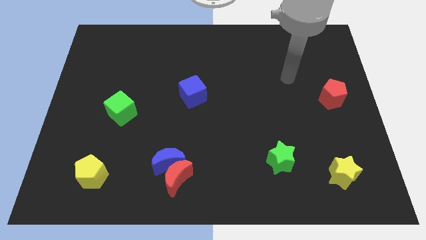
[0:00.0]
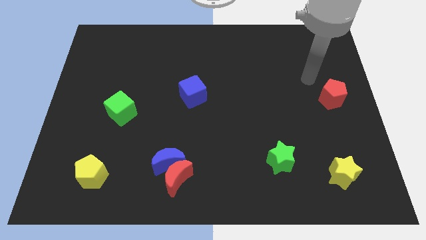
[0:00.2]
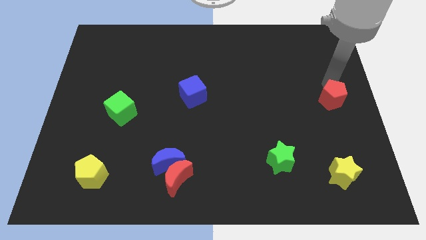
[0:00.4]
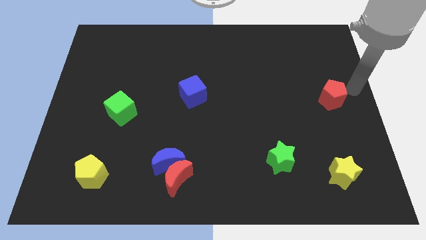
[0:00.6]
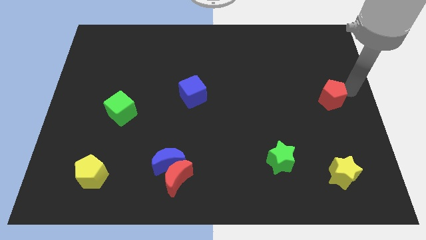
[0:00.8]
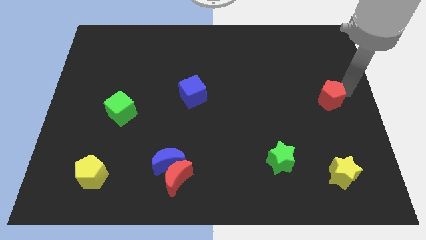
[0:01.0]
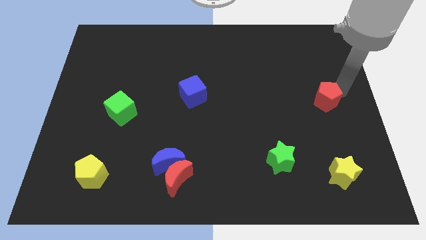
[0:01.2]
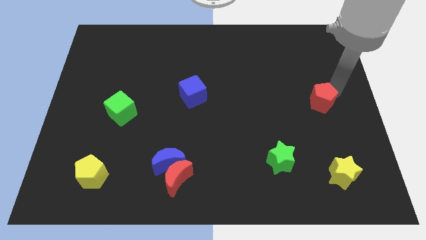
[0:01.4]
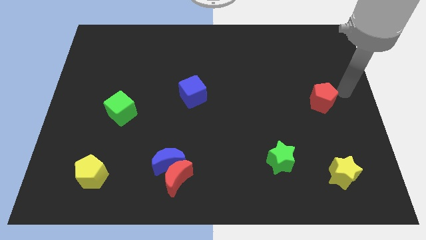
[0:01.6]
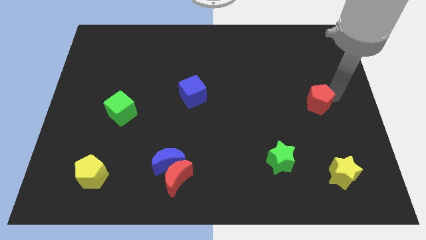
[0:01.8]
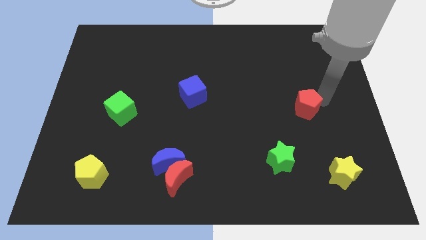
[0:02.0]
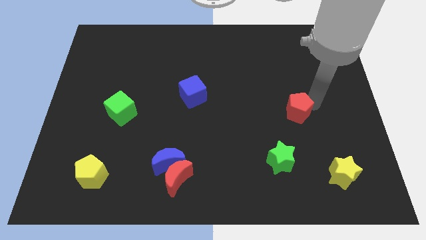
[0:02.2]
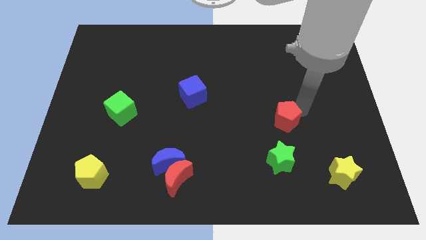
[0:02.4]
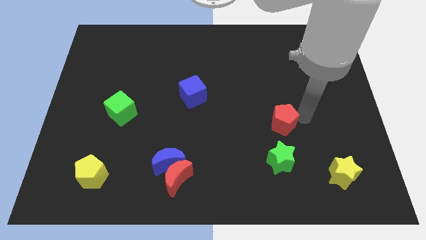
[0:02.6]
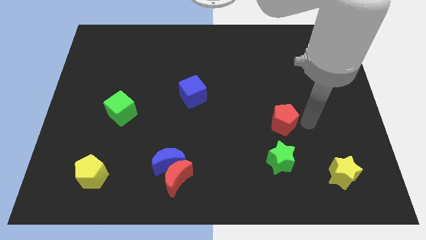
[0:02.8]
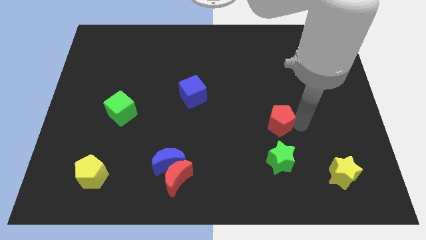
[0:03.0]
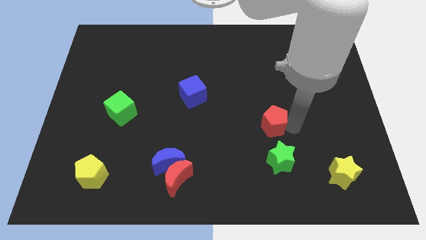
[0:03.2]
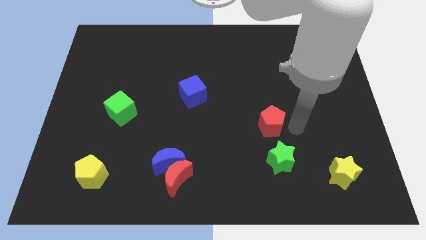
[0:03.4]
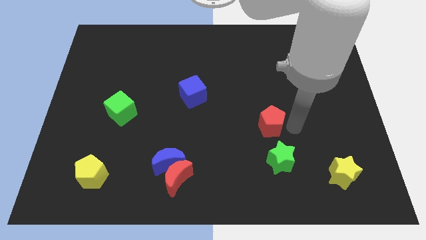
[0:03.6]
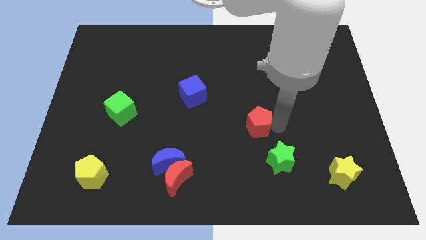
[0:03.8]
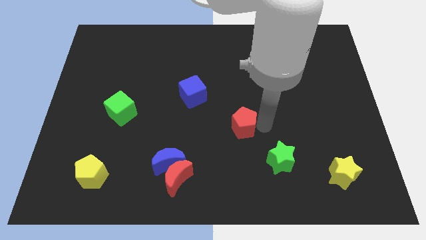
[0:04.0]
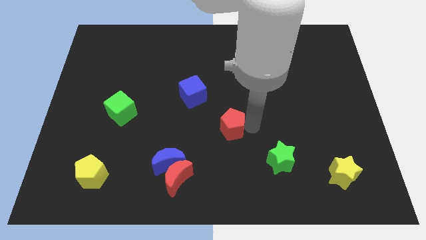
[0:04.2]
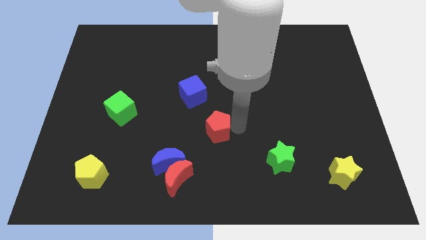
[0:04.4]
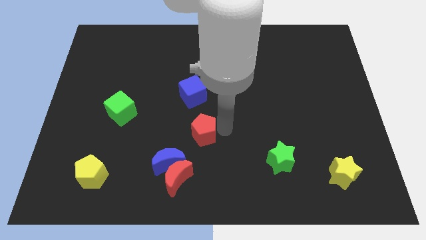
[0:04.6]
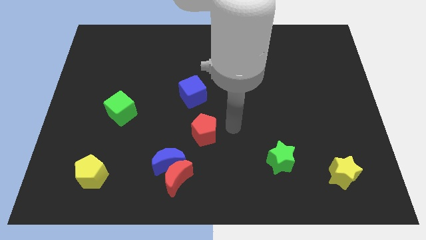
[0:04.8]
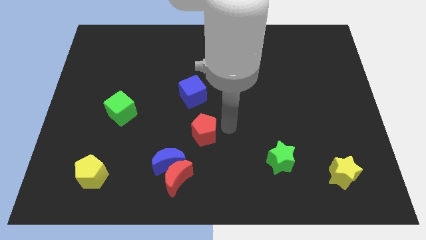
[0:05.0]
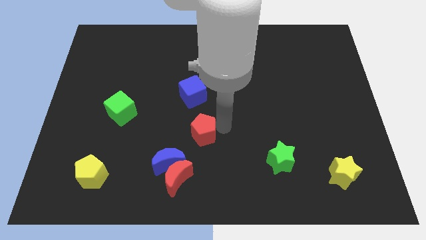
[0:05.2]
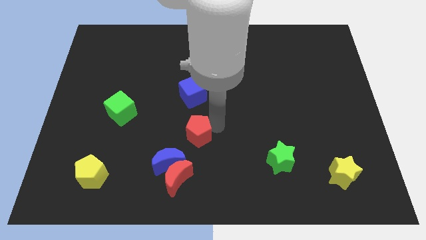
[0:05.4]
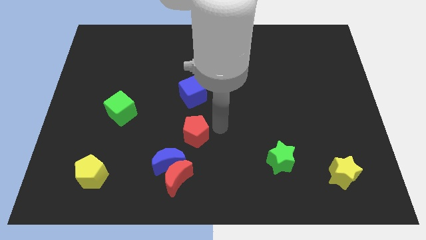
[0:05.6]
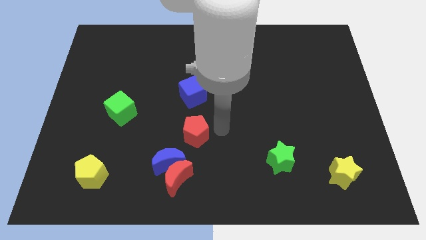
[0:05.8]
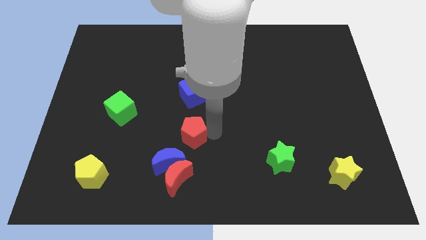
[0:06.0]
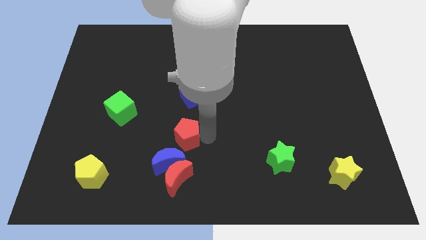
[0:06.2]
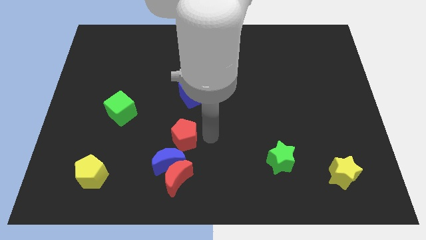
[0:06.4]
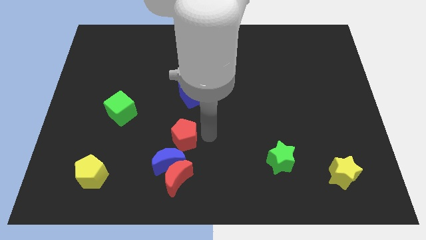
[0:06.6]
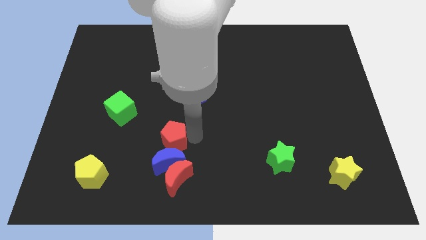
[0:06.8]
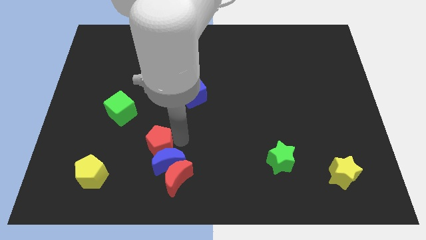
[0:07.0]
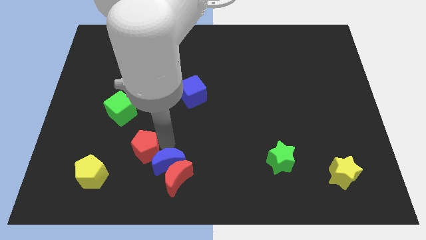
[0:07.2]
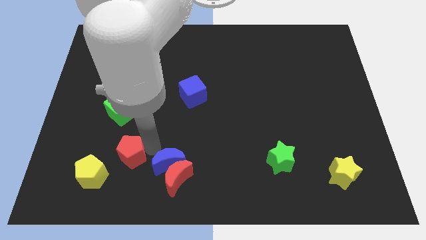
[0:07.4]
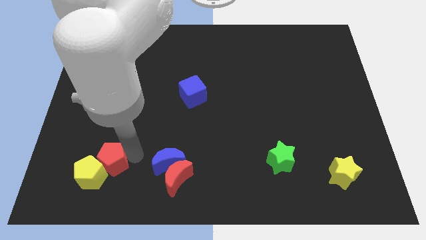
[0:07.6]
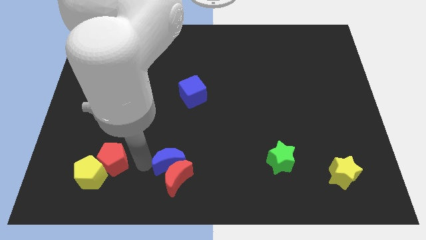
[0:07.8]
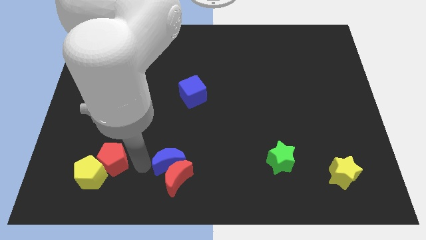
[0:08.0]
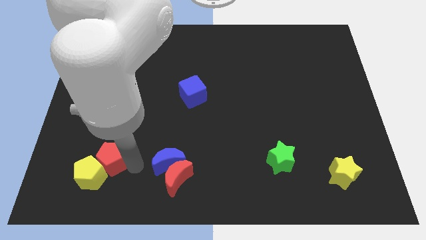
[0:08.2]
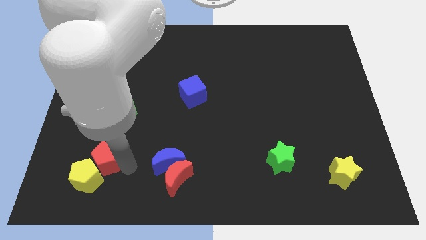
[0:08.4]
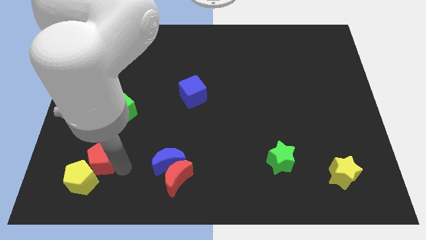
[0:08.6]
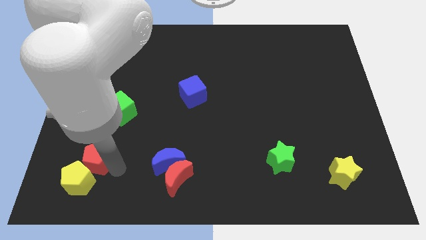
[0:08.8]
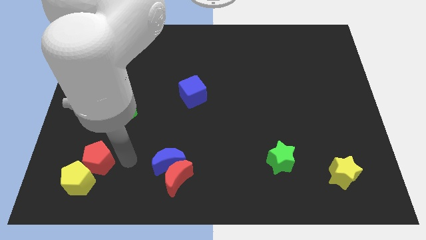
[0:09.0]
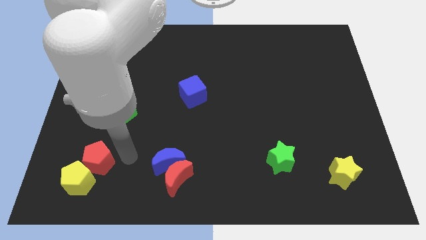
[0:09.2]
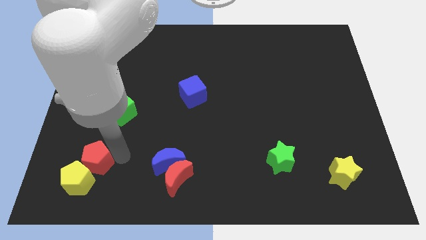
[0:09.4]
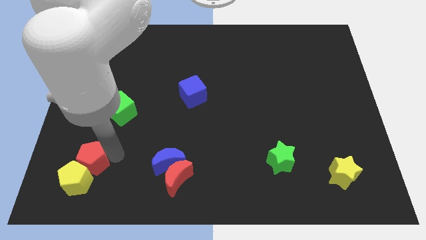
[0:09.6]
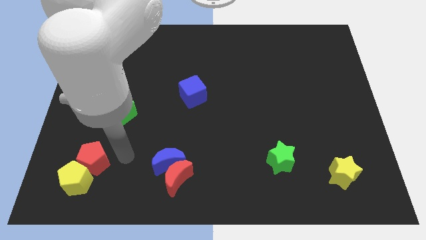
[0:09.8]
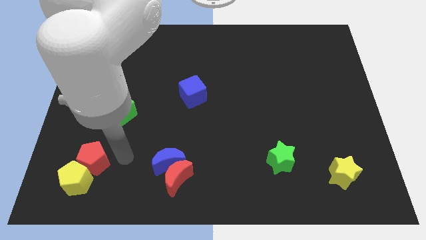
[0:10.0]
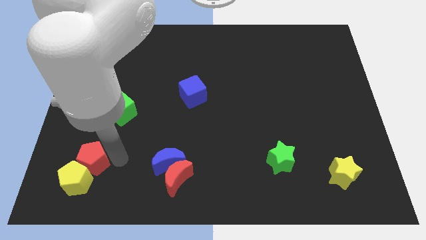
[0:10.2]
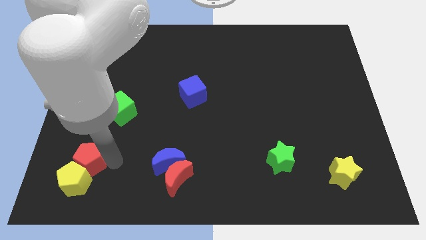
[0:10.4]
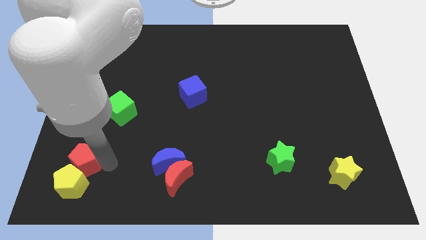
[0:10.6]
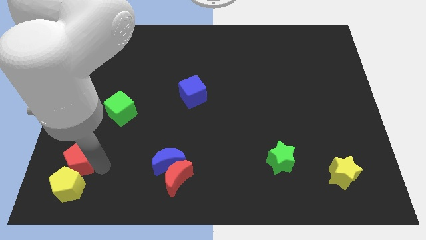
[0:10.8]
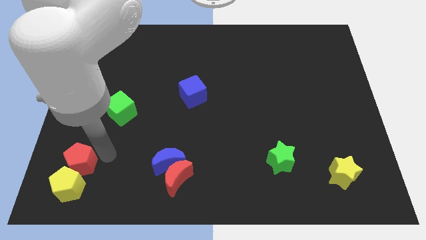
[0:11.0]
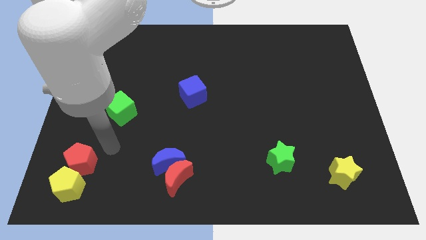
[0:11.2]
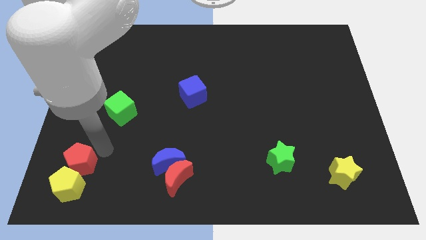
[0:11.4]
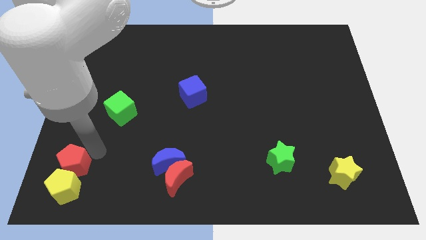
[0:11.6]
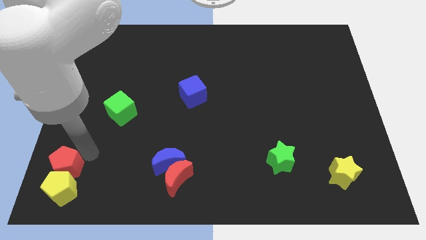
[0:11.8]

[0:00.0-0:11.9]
push the red pentagon to the bottom left of the board

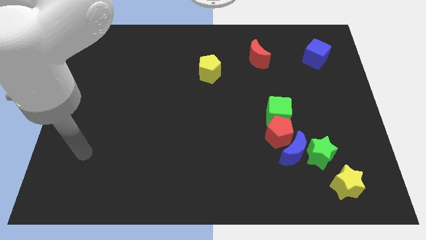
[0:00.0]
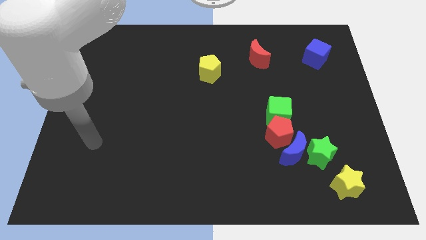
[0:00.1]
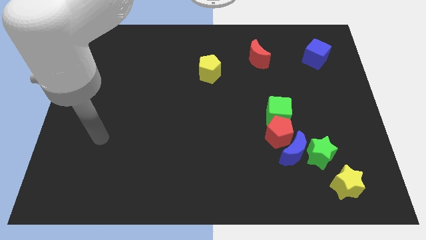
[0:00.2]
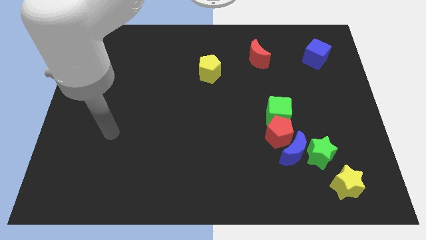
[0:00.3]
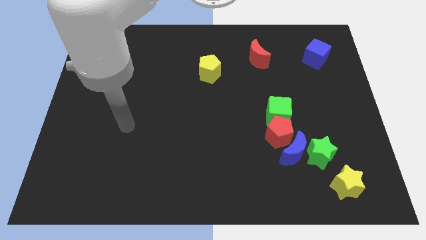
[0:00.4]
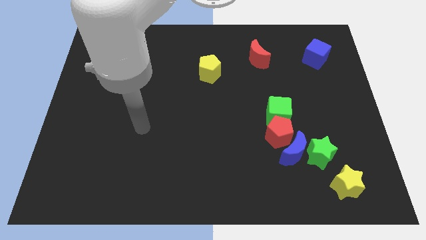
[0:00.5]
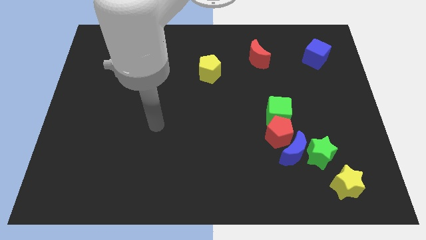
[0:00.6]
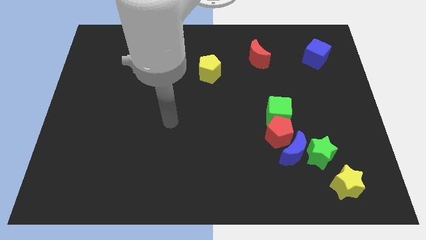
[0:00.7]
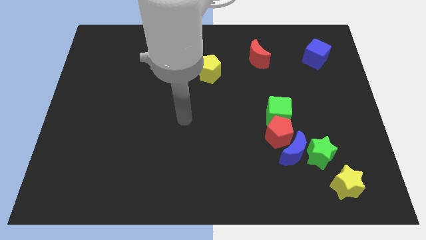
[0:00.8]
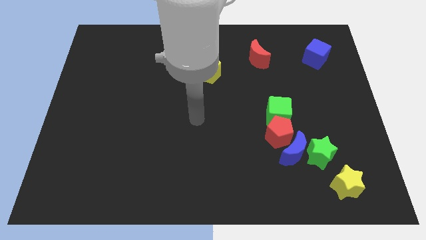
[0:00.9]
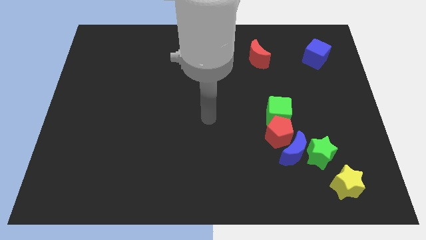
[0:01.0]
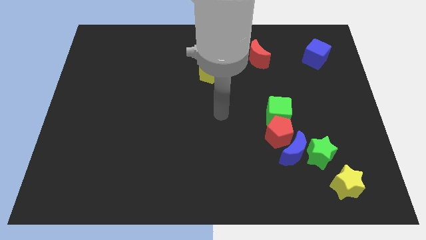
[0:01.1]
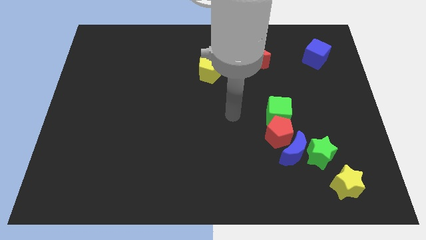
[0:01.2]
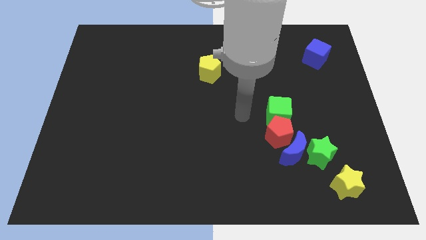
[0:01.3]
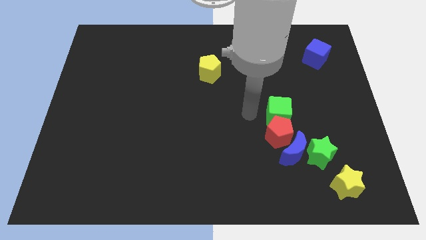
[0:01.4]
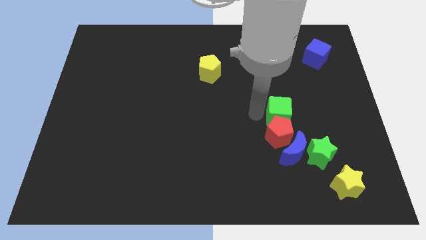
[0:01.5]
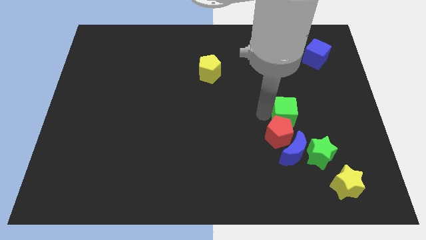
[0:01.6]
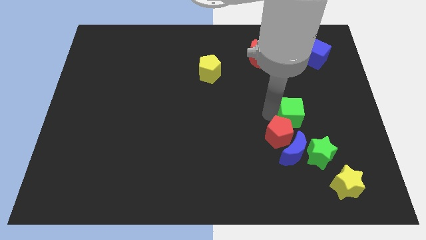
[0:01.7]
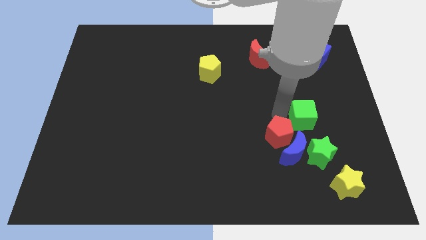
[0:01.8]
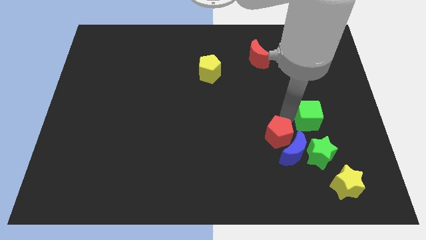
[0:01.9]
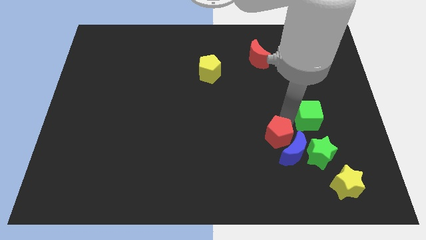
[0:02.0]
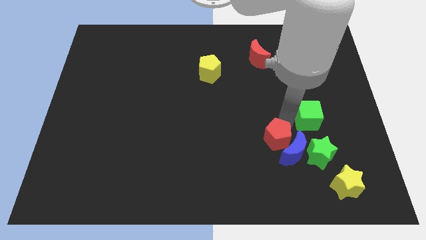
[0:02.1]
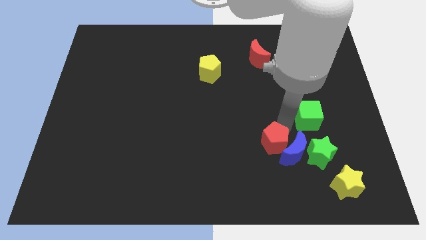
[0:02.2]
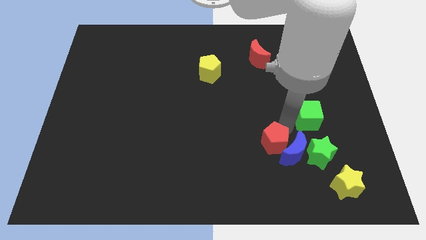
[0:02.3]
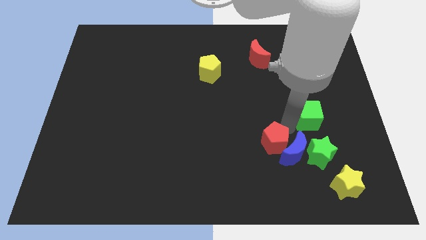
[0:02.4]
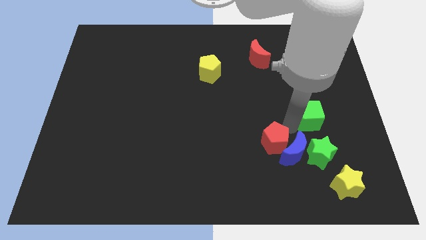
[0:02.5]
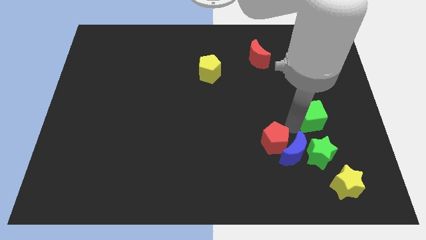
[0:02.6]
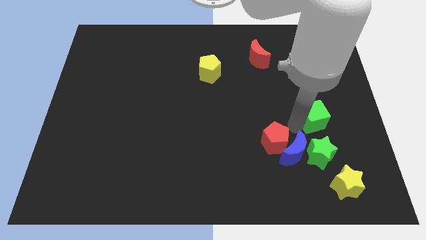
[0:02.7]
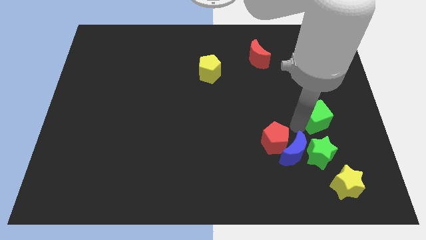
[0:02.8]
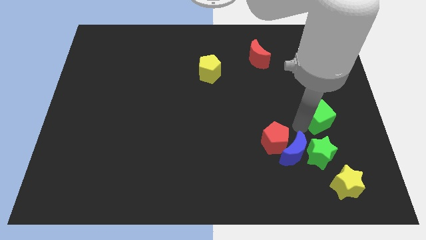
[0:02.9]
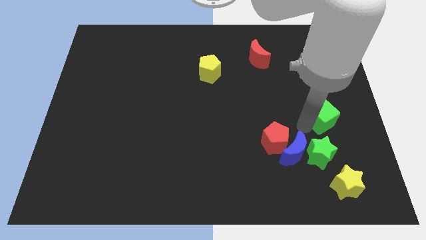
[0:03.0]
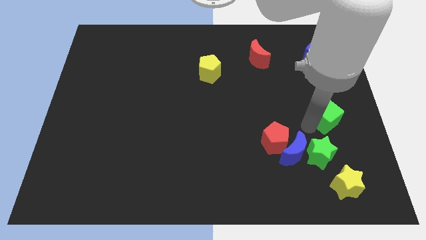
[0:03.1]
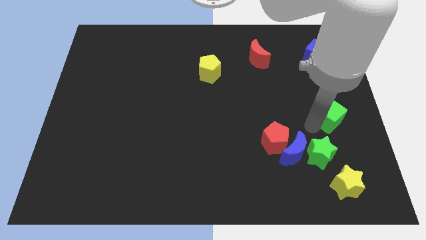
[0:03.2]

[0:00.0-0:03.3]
slide the green cube to the right side of the board
